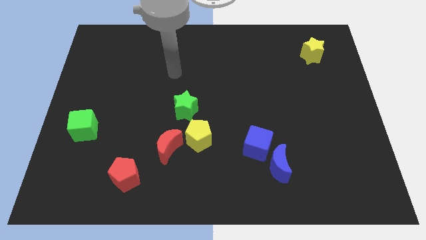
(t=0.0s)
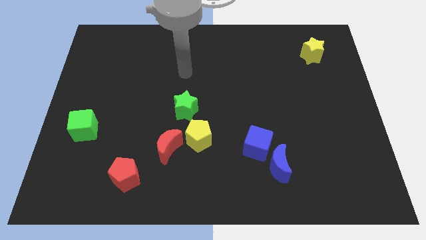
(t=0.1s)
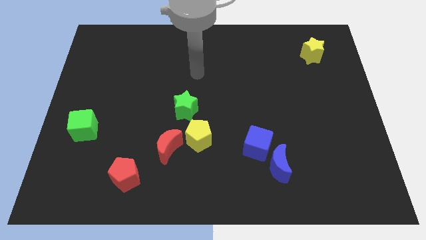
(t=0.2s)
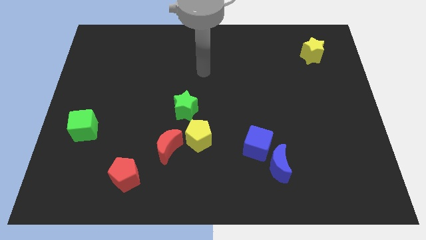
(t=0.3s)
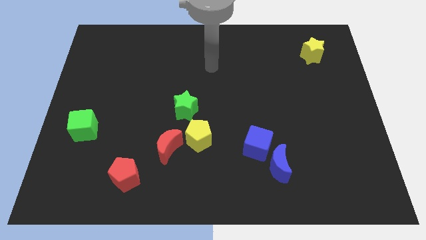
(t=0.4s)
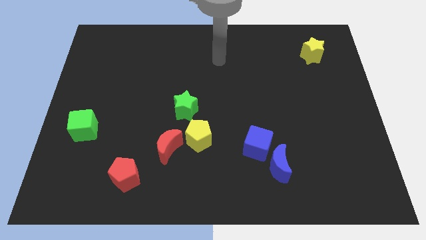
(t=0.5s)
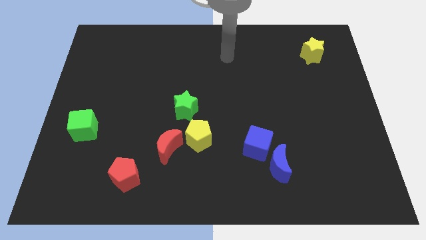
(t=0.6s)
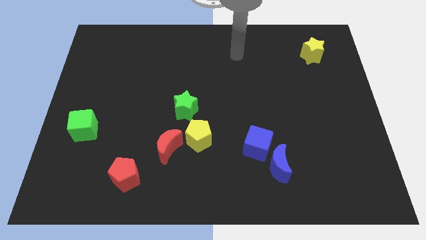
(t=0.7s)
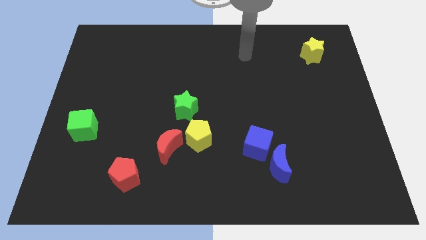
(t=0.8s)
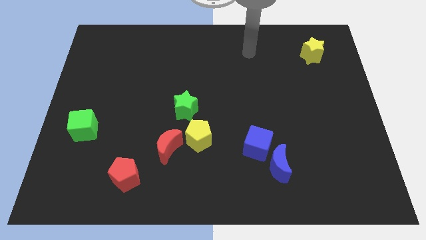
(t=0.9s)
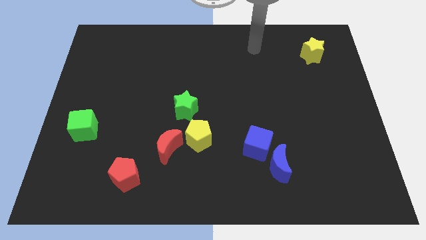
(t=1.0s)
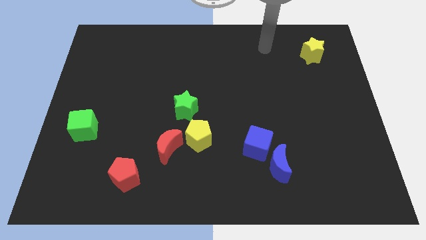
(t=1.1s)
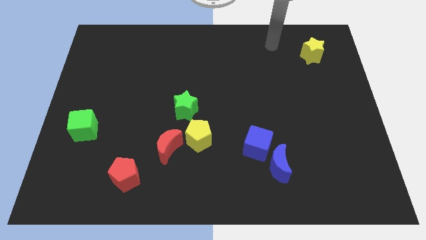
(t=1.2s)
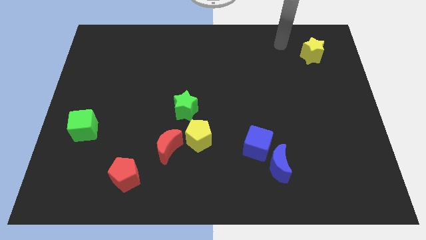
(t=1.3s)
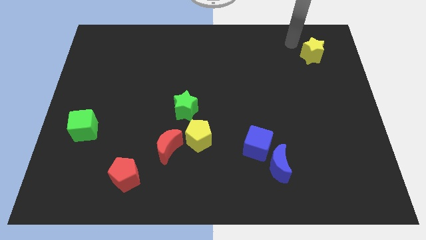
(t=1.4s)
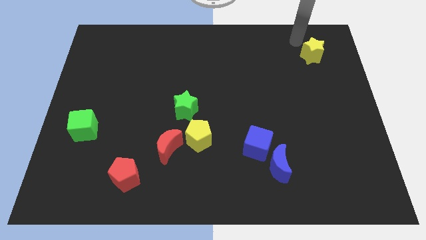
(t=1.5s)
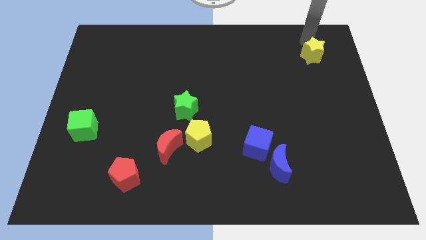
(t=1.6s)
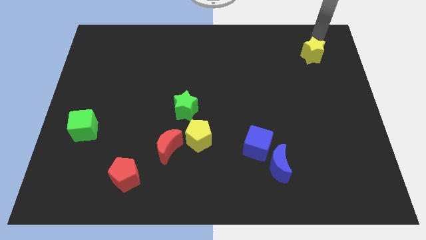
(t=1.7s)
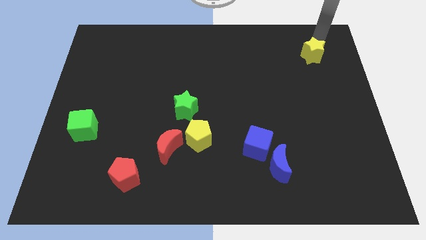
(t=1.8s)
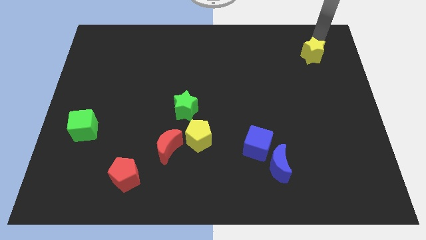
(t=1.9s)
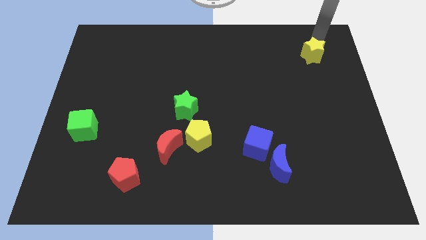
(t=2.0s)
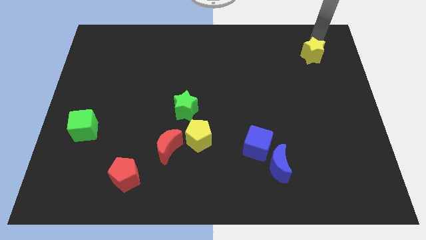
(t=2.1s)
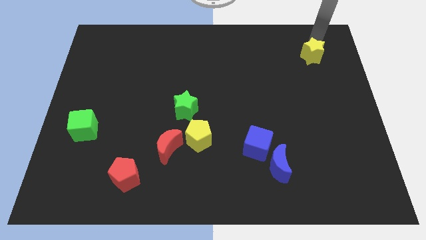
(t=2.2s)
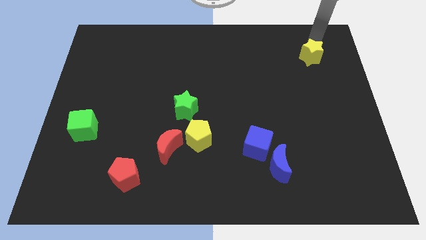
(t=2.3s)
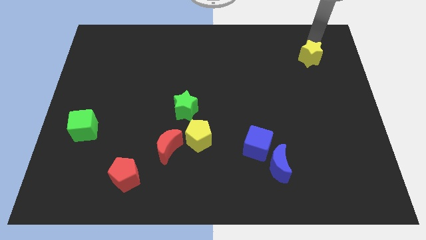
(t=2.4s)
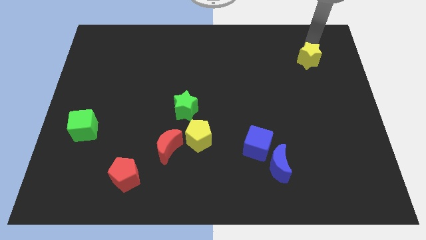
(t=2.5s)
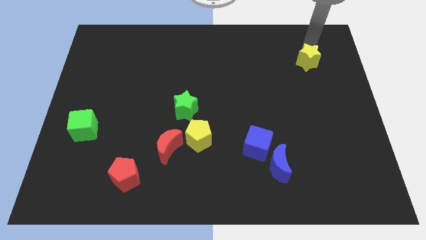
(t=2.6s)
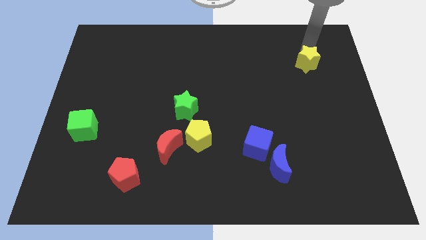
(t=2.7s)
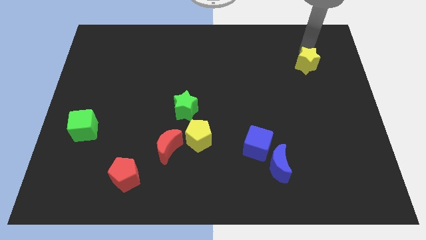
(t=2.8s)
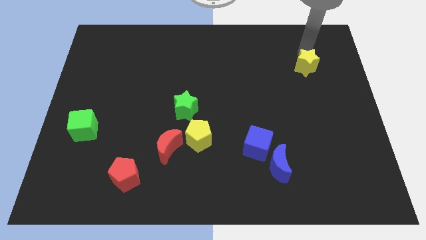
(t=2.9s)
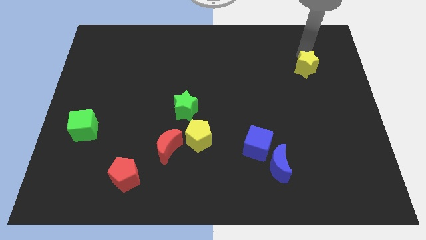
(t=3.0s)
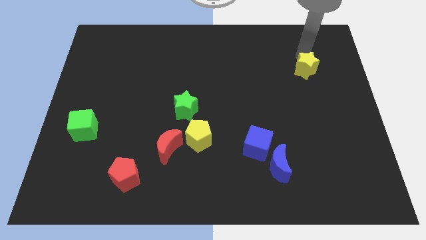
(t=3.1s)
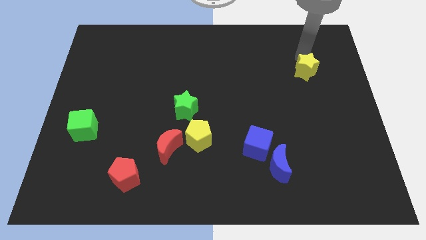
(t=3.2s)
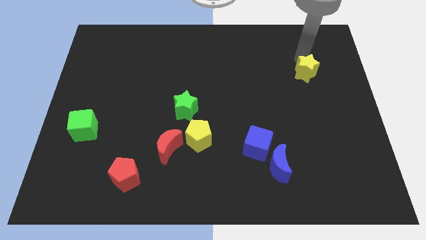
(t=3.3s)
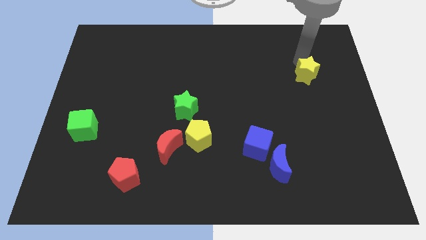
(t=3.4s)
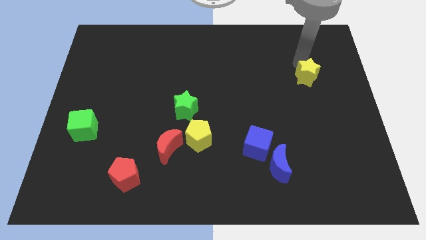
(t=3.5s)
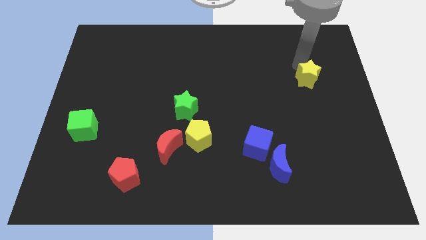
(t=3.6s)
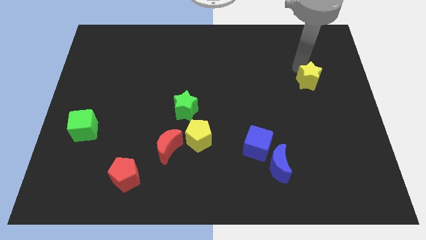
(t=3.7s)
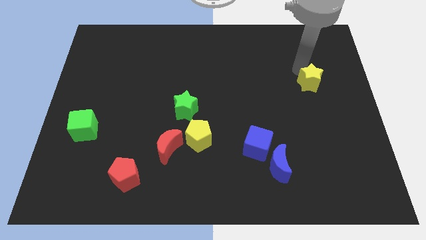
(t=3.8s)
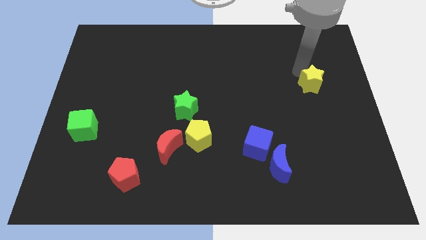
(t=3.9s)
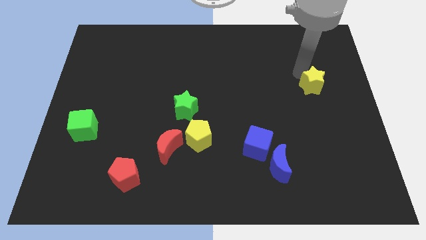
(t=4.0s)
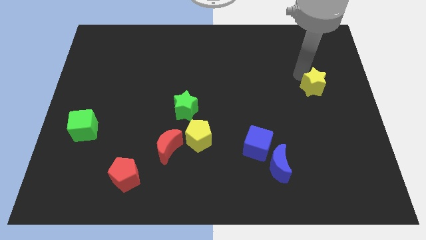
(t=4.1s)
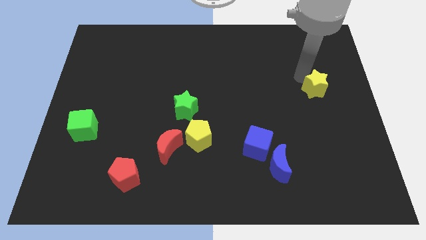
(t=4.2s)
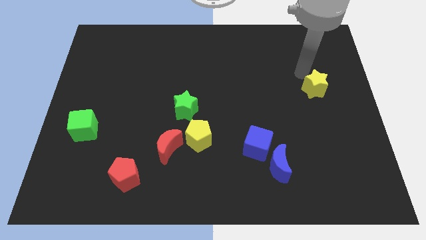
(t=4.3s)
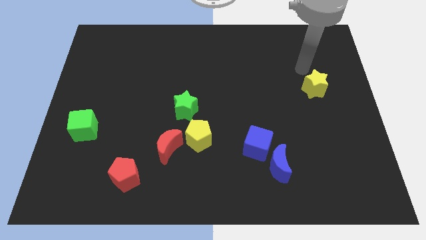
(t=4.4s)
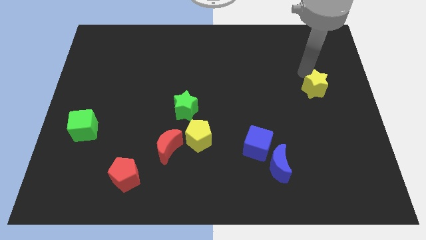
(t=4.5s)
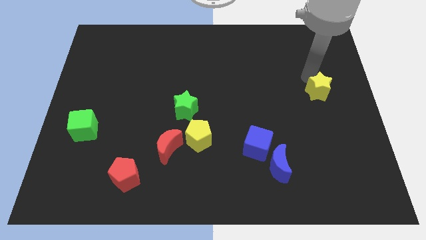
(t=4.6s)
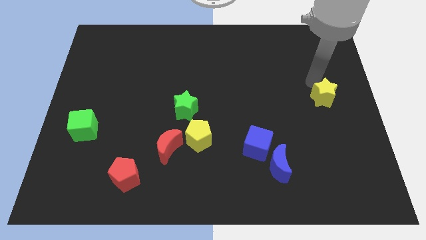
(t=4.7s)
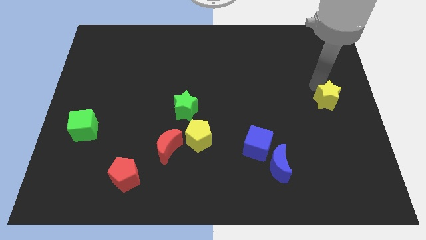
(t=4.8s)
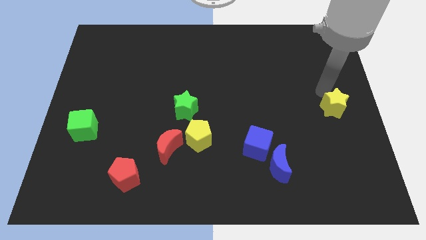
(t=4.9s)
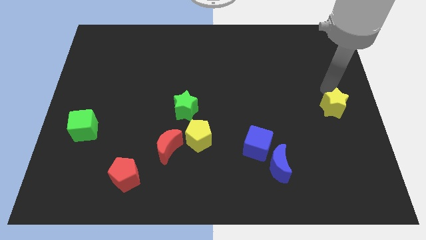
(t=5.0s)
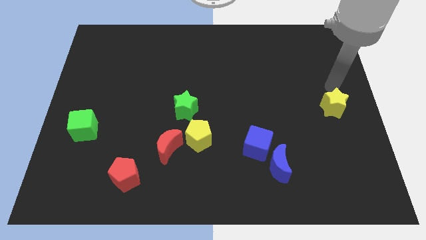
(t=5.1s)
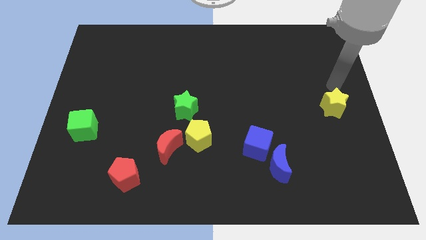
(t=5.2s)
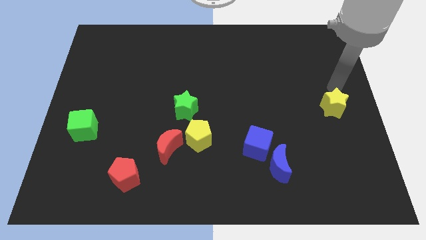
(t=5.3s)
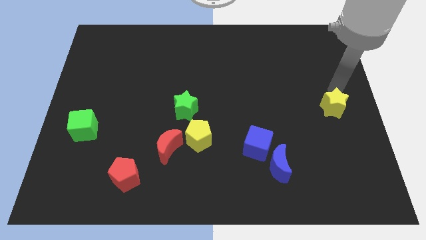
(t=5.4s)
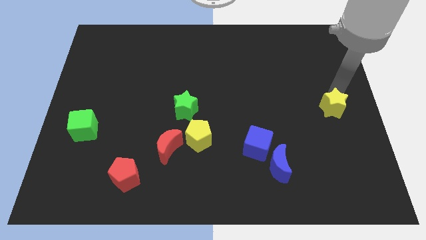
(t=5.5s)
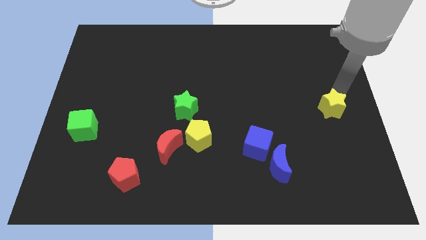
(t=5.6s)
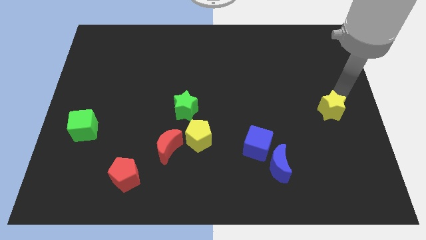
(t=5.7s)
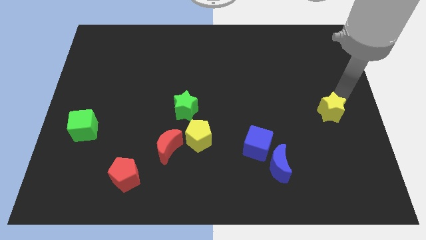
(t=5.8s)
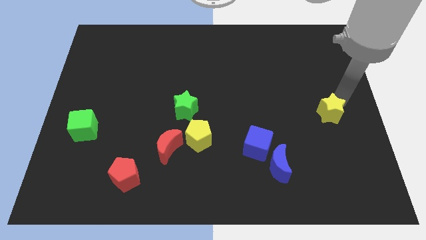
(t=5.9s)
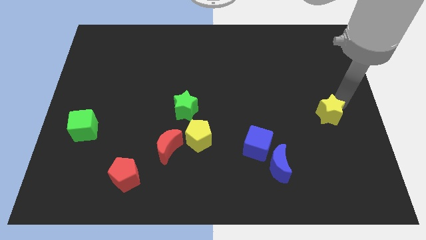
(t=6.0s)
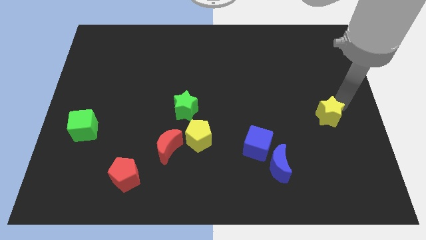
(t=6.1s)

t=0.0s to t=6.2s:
slide the yellow star down

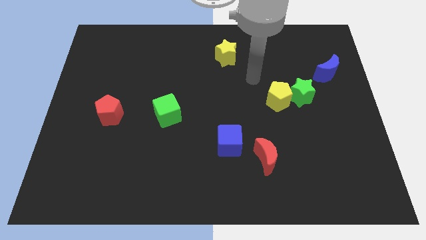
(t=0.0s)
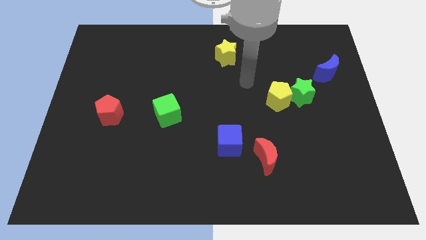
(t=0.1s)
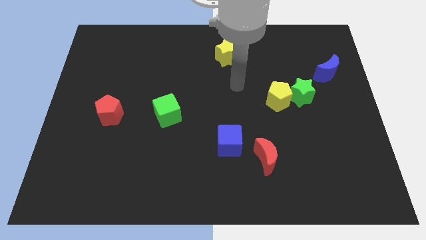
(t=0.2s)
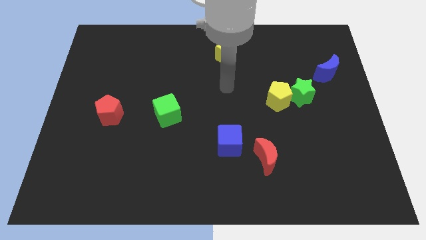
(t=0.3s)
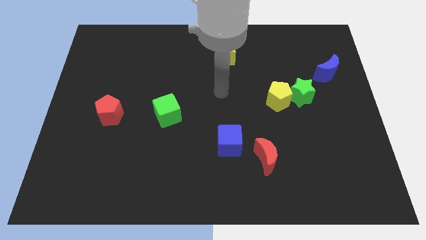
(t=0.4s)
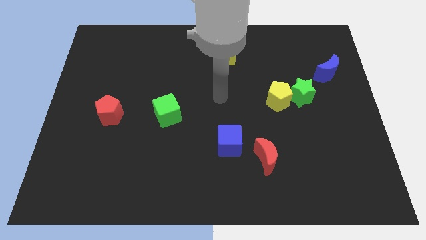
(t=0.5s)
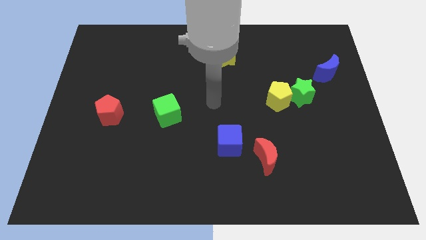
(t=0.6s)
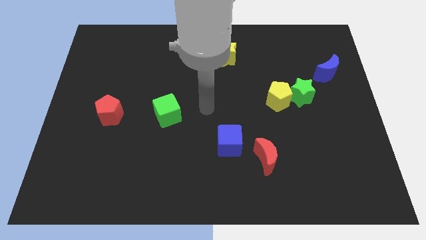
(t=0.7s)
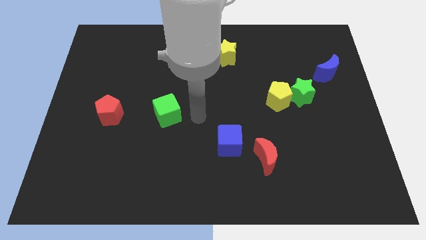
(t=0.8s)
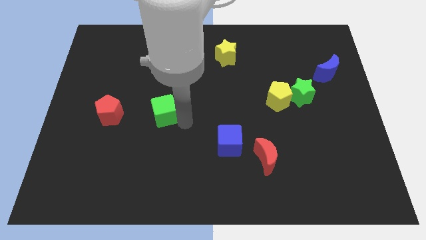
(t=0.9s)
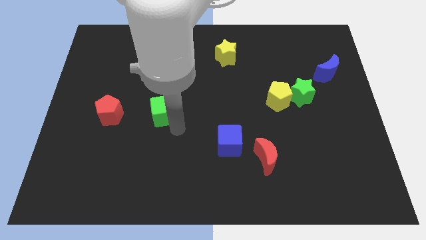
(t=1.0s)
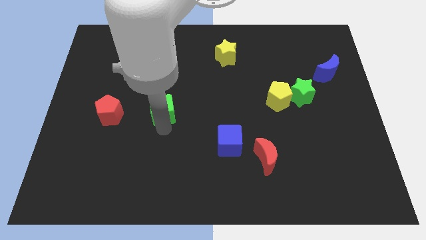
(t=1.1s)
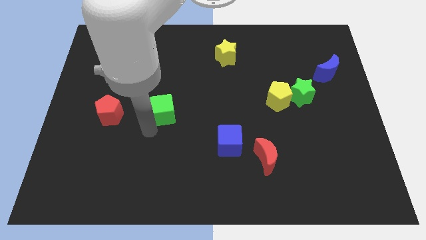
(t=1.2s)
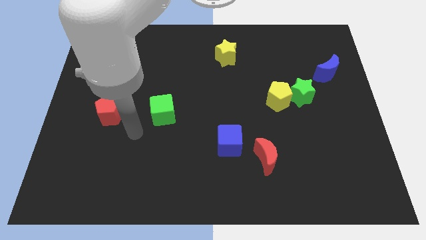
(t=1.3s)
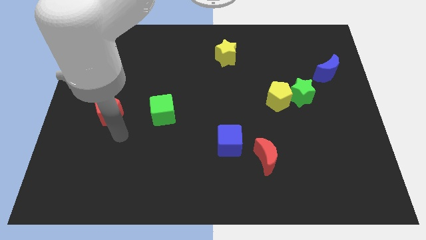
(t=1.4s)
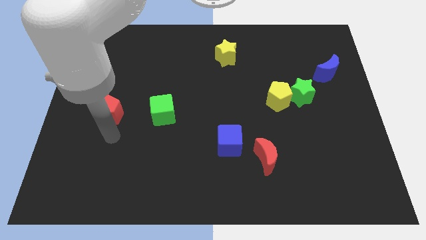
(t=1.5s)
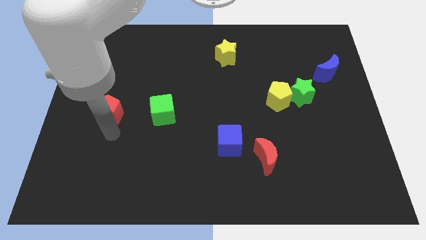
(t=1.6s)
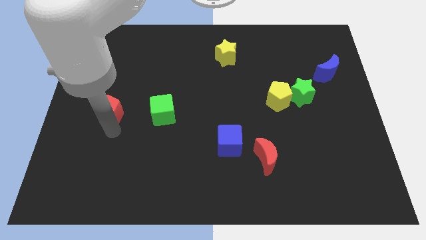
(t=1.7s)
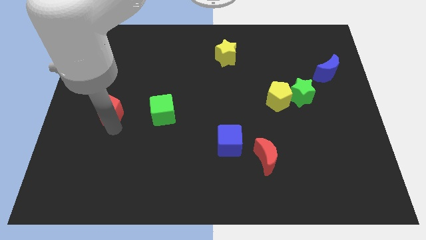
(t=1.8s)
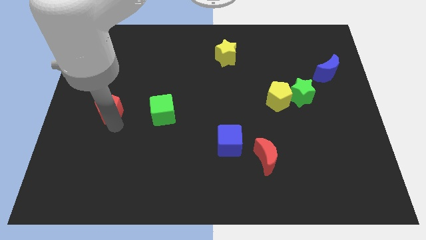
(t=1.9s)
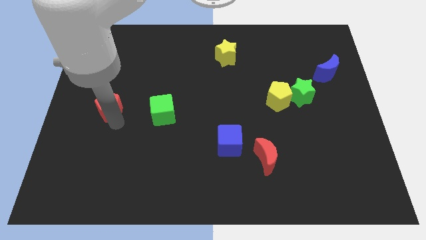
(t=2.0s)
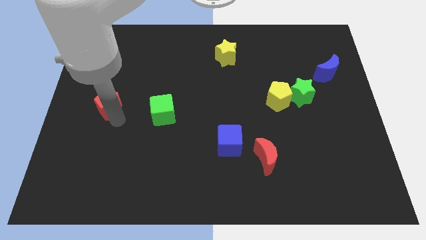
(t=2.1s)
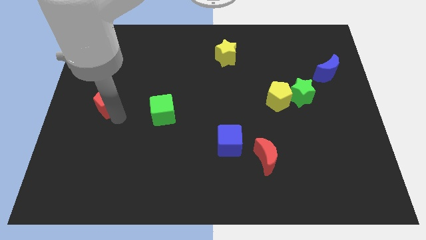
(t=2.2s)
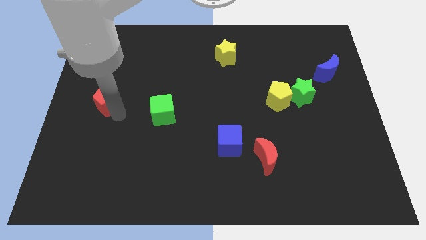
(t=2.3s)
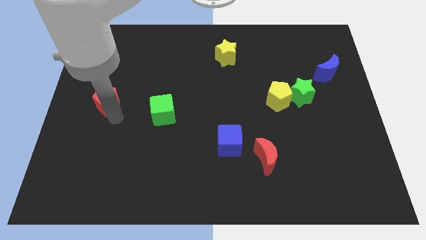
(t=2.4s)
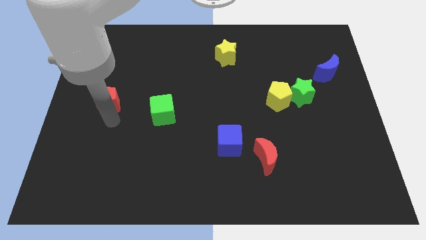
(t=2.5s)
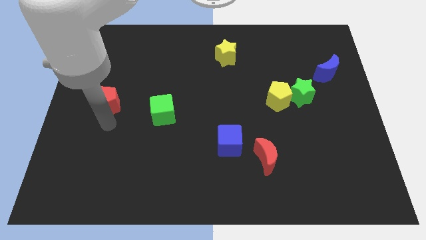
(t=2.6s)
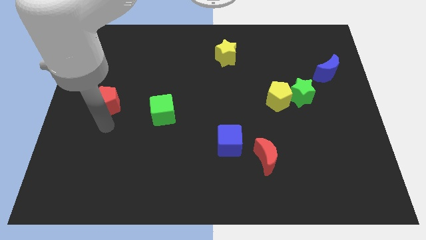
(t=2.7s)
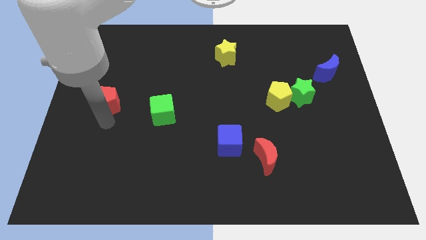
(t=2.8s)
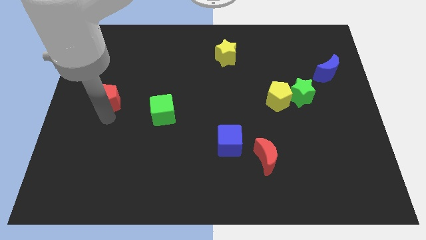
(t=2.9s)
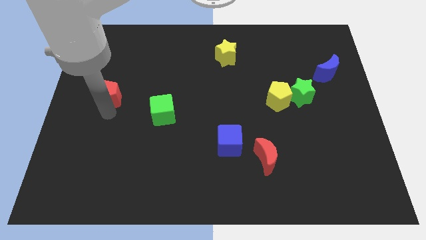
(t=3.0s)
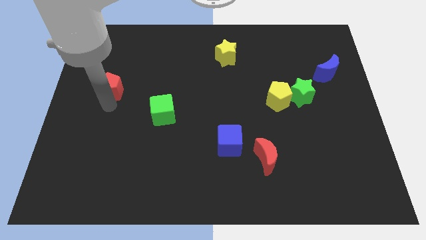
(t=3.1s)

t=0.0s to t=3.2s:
move the red pentagon slightly up
